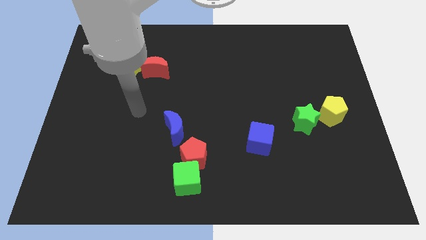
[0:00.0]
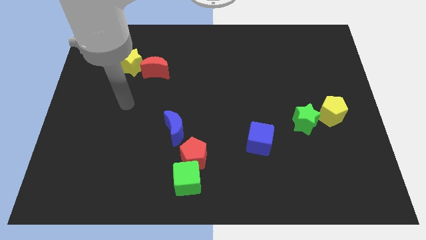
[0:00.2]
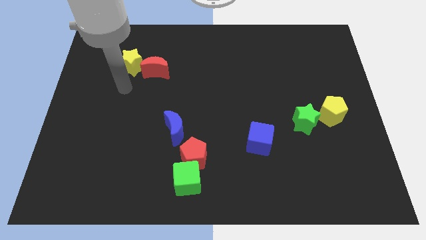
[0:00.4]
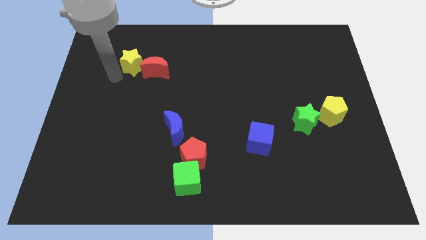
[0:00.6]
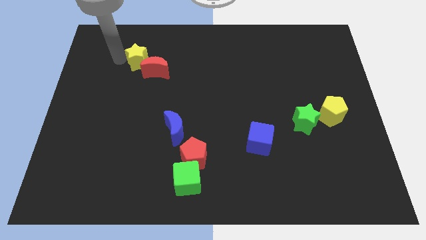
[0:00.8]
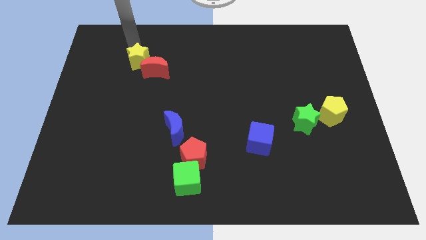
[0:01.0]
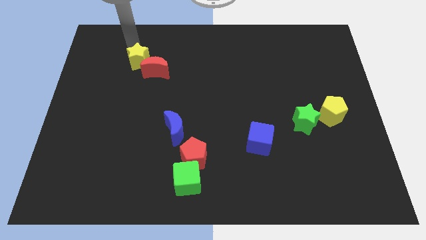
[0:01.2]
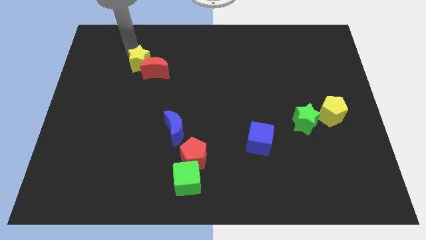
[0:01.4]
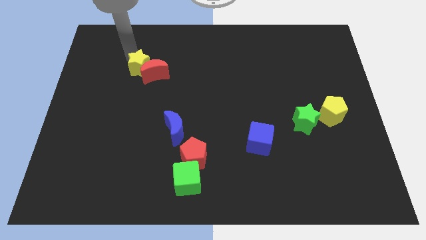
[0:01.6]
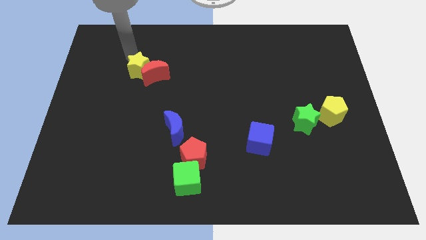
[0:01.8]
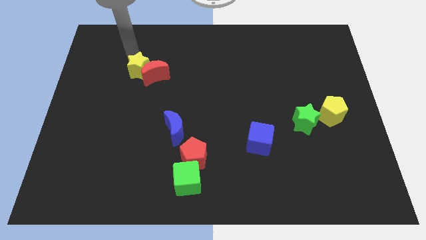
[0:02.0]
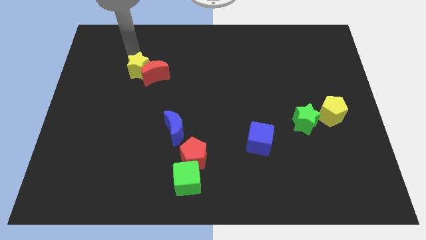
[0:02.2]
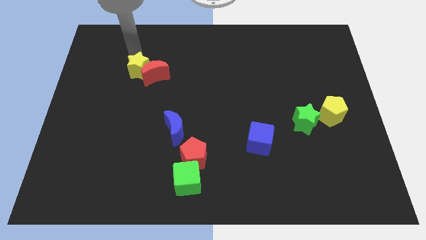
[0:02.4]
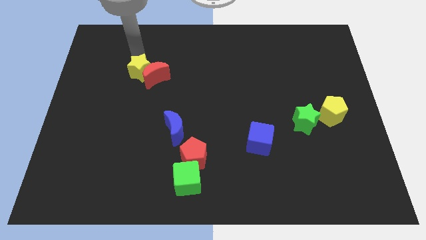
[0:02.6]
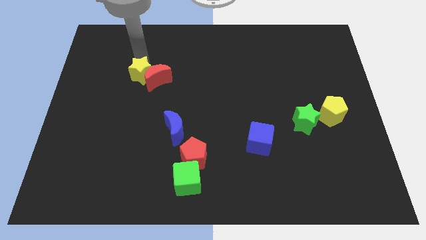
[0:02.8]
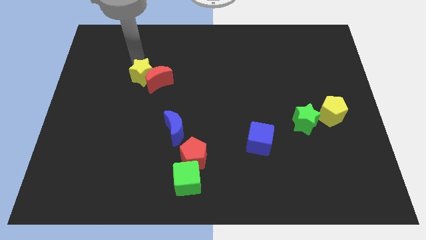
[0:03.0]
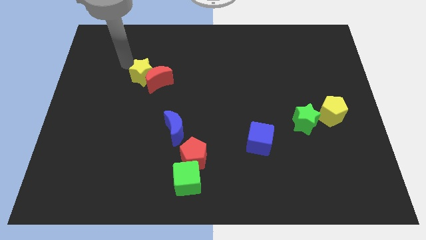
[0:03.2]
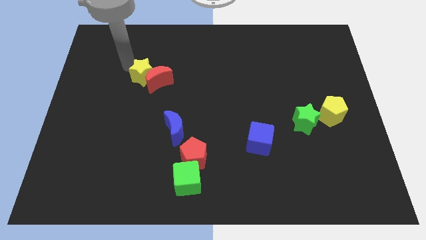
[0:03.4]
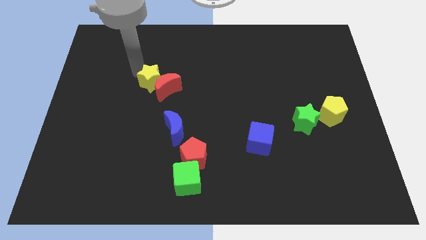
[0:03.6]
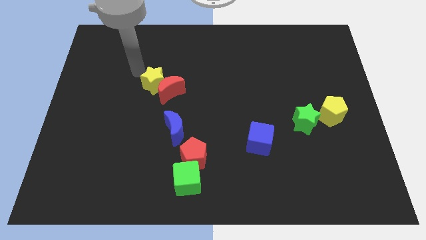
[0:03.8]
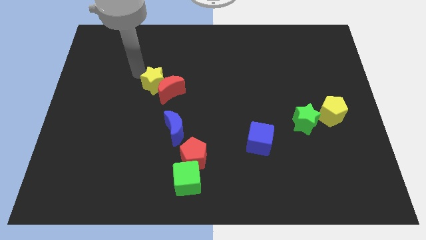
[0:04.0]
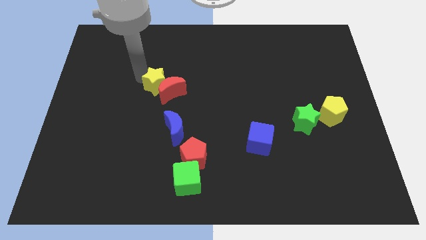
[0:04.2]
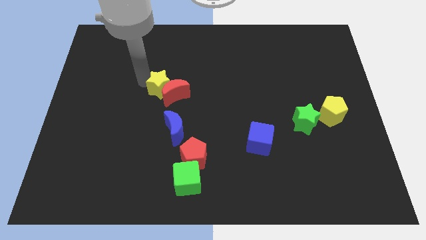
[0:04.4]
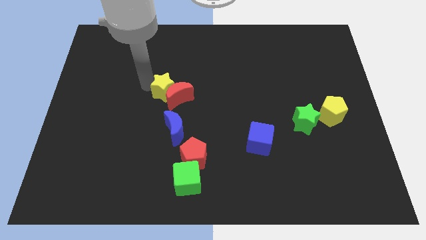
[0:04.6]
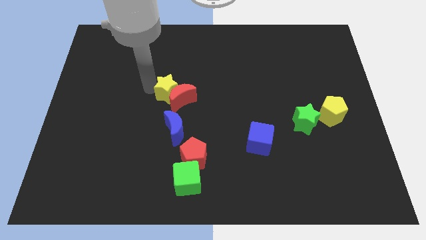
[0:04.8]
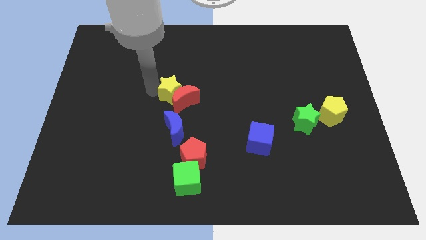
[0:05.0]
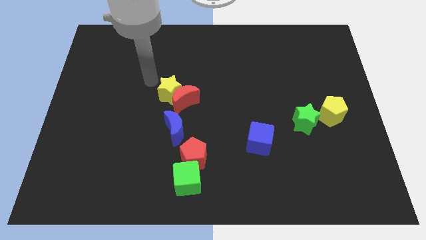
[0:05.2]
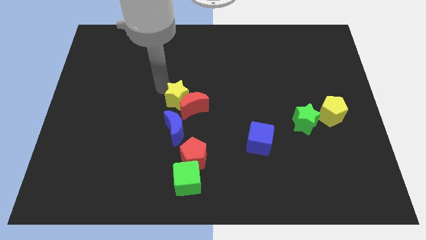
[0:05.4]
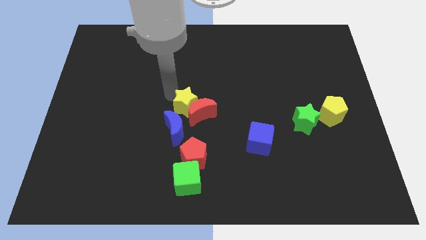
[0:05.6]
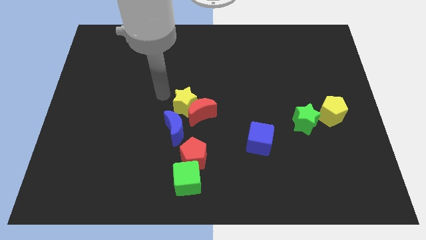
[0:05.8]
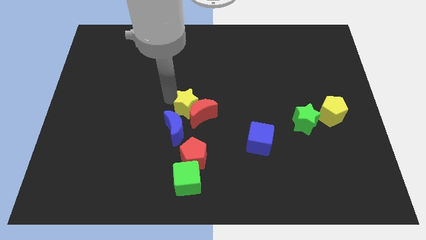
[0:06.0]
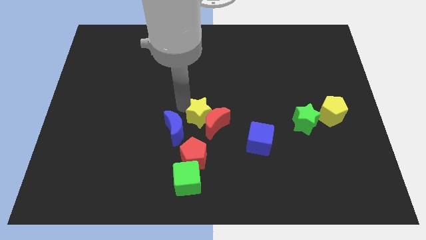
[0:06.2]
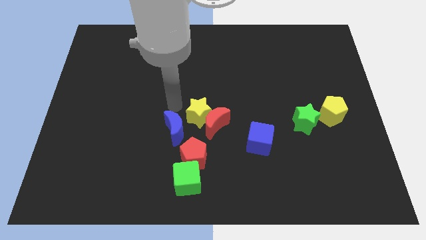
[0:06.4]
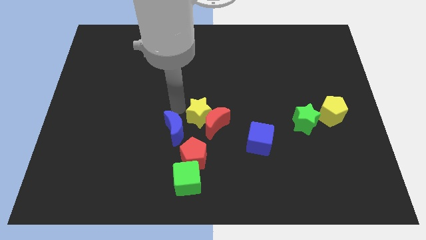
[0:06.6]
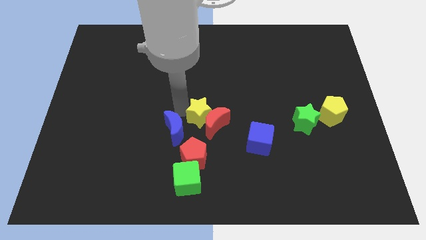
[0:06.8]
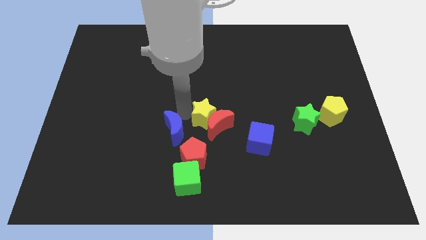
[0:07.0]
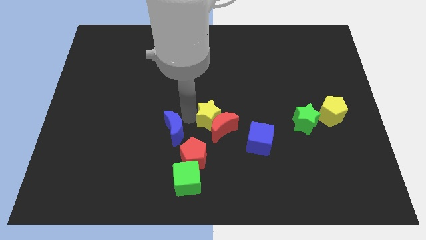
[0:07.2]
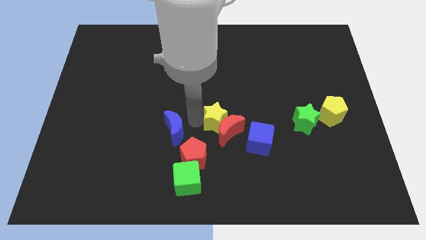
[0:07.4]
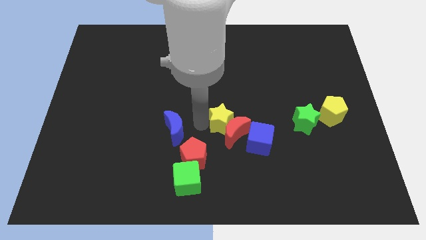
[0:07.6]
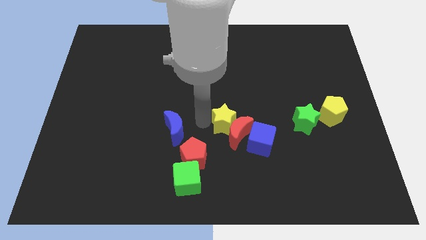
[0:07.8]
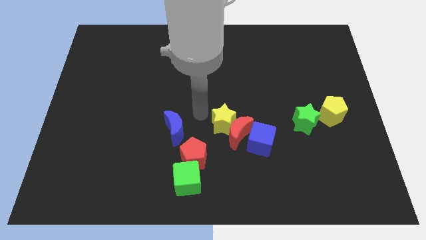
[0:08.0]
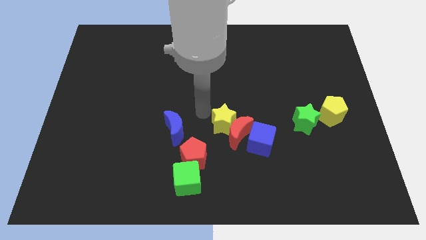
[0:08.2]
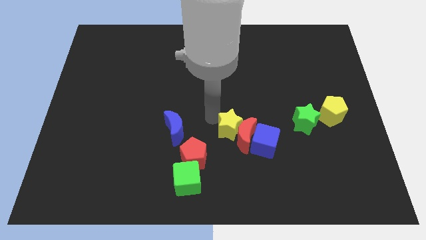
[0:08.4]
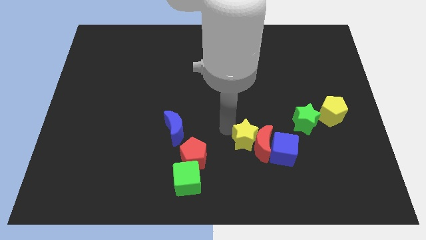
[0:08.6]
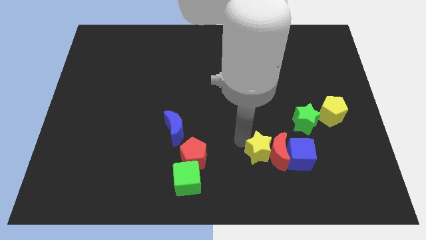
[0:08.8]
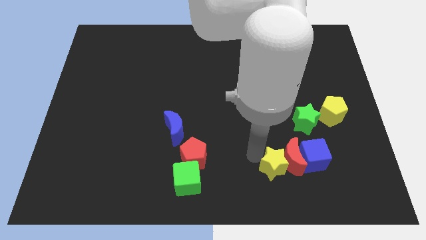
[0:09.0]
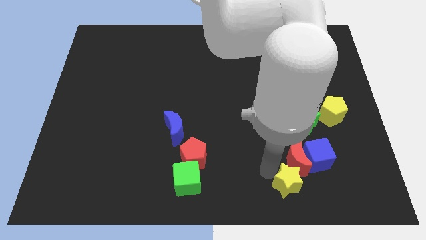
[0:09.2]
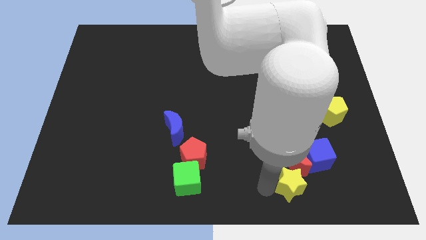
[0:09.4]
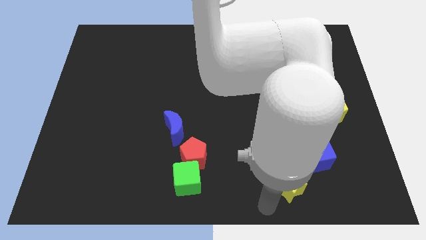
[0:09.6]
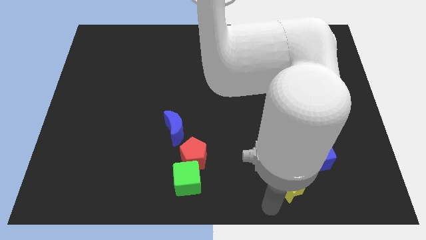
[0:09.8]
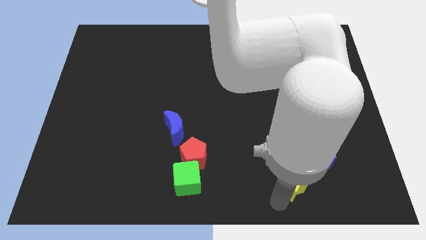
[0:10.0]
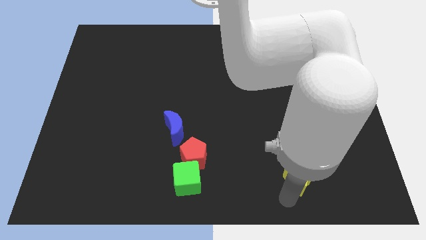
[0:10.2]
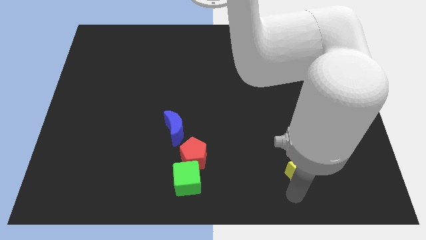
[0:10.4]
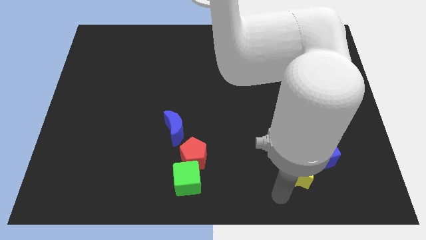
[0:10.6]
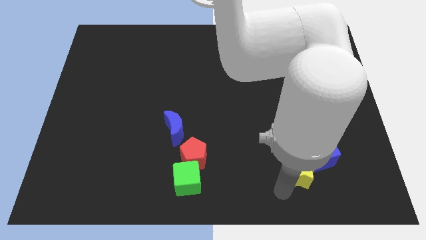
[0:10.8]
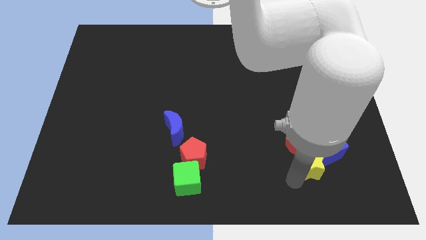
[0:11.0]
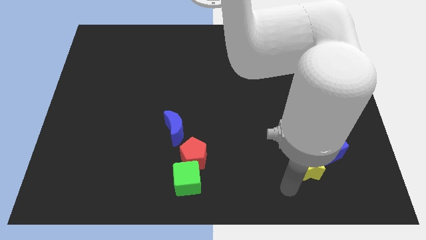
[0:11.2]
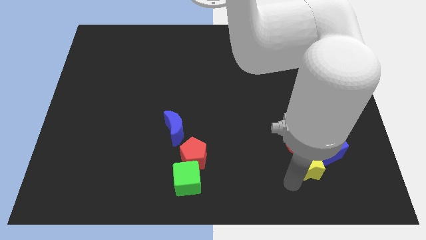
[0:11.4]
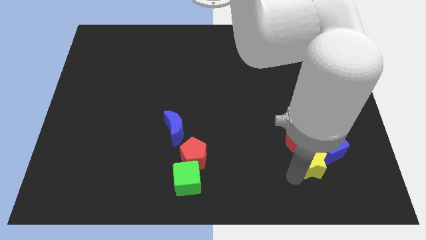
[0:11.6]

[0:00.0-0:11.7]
put the yellow star towards the blue cube

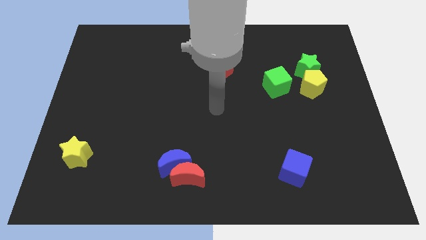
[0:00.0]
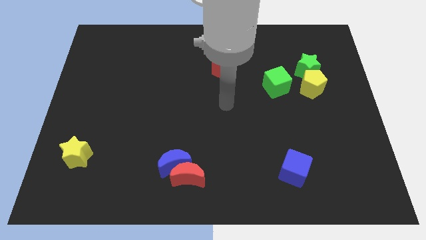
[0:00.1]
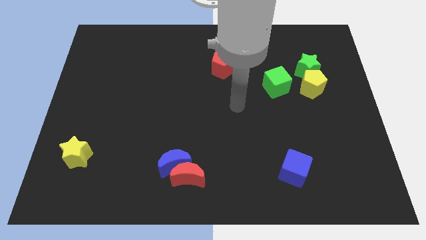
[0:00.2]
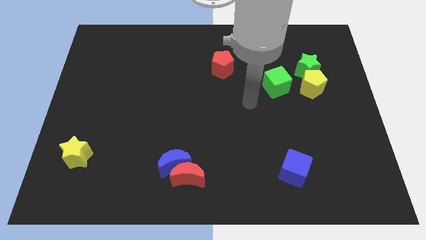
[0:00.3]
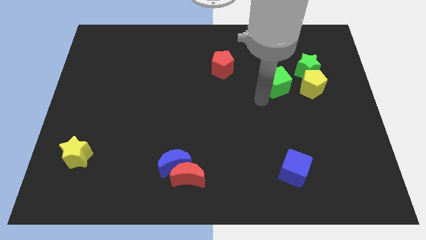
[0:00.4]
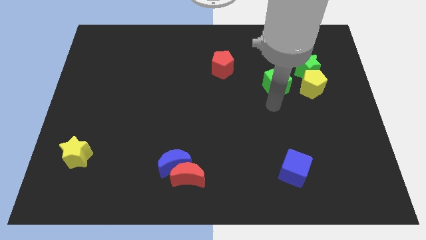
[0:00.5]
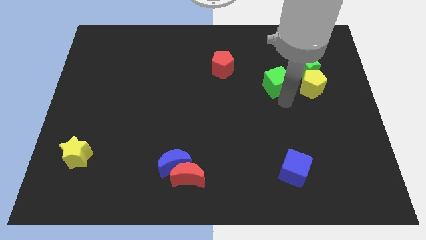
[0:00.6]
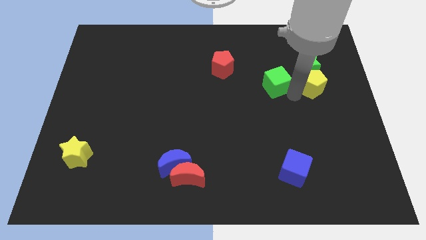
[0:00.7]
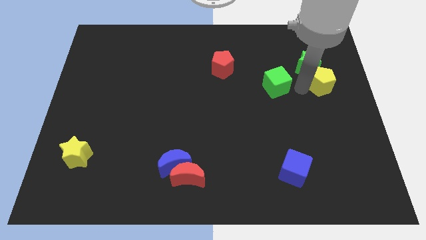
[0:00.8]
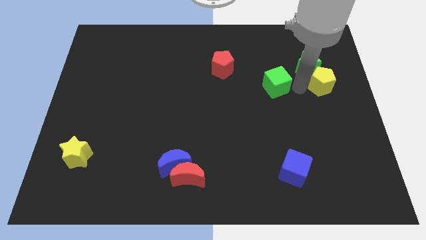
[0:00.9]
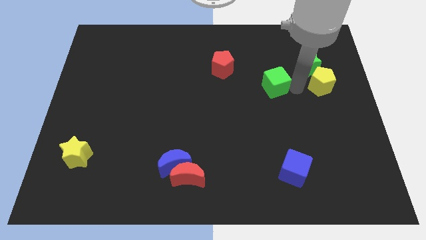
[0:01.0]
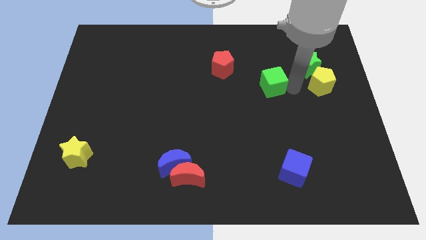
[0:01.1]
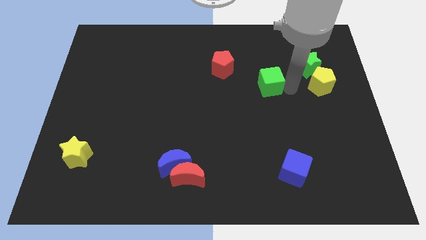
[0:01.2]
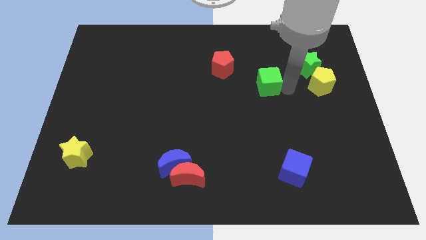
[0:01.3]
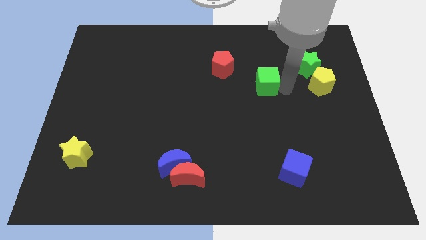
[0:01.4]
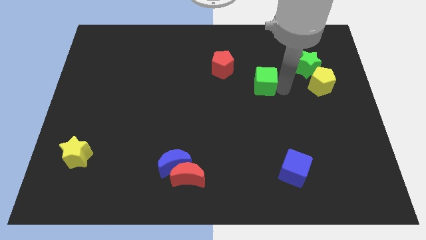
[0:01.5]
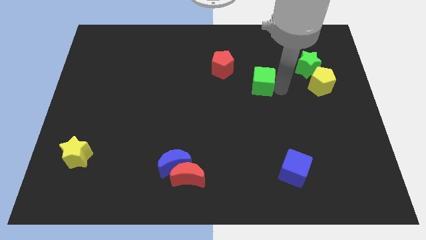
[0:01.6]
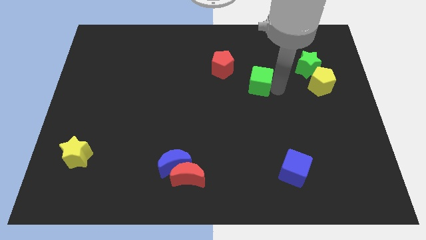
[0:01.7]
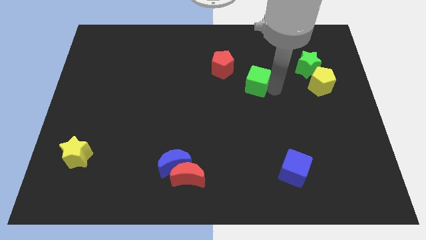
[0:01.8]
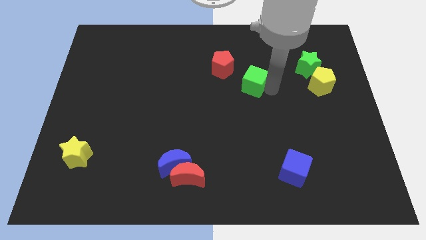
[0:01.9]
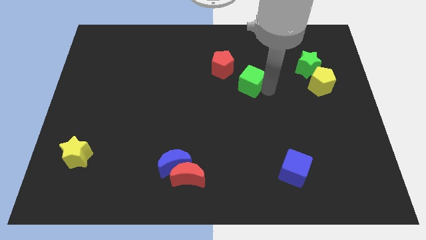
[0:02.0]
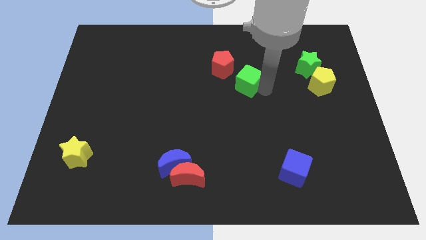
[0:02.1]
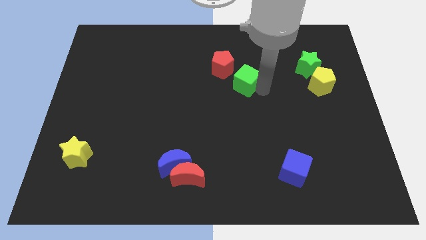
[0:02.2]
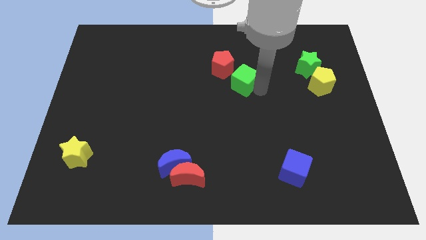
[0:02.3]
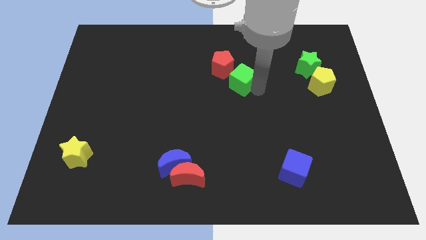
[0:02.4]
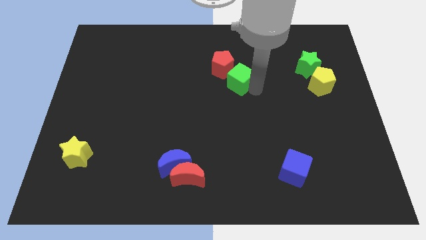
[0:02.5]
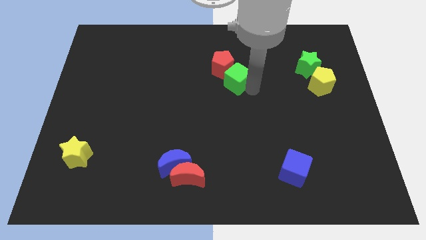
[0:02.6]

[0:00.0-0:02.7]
move the green cube next to the red pentagon
